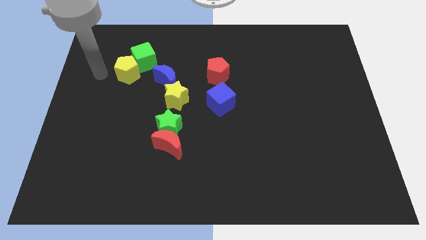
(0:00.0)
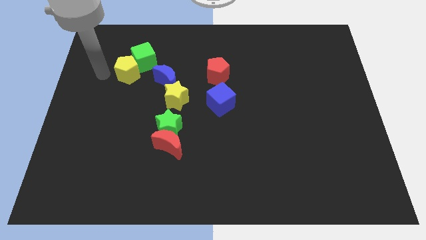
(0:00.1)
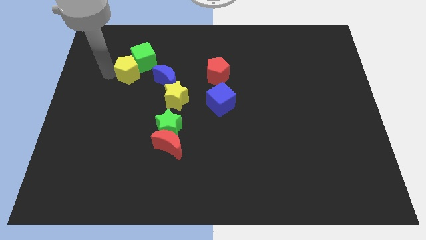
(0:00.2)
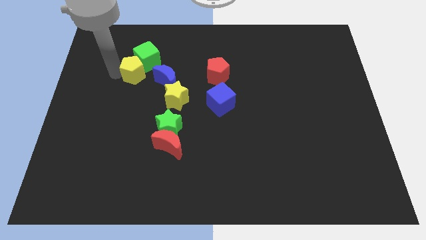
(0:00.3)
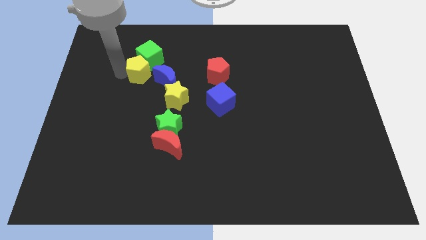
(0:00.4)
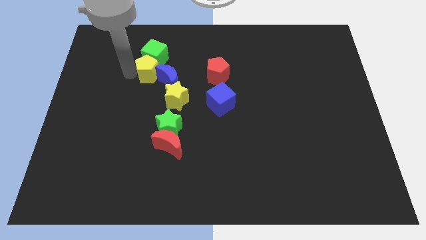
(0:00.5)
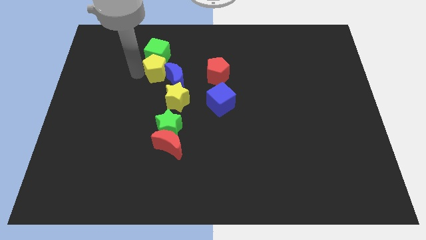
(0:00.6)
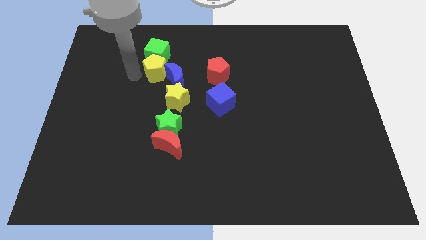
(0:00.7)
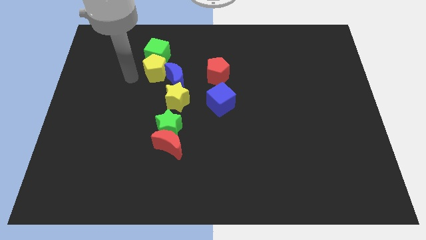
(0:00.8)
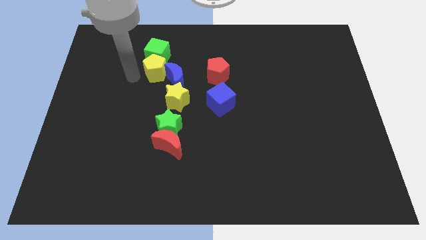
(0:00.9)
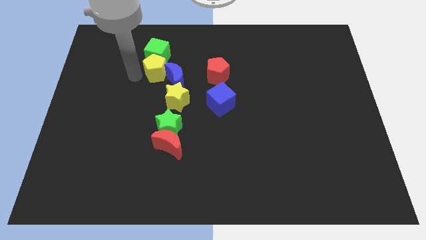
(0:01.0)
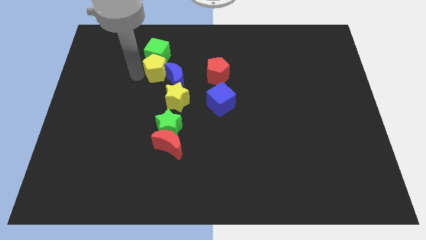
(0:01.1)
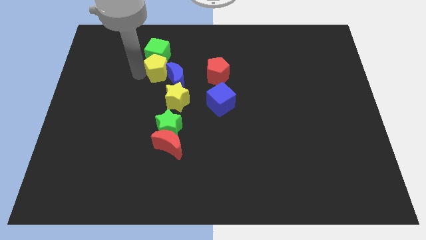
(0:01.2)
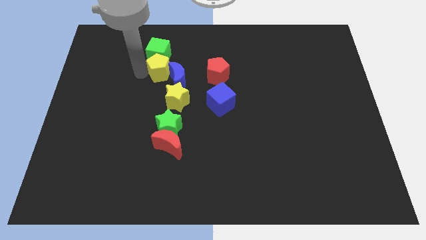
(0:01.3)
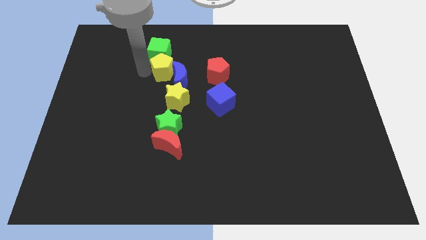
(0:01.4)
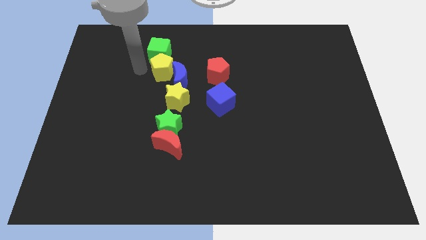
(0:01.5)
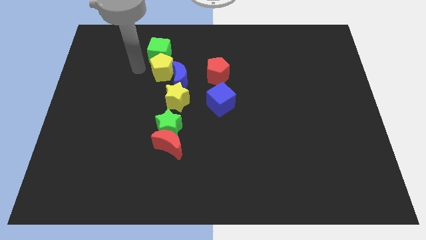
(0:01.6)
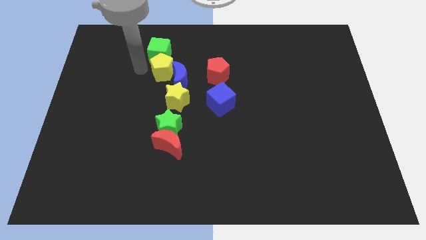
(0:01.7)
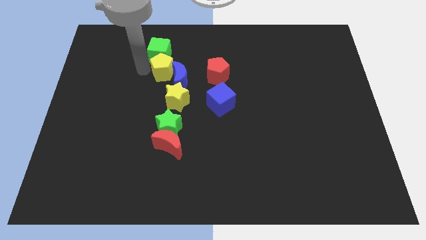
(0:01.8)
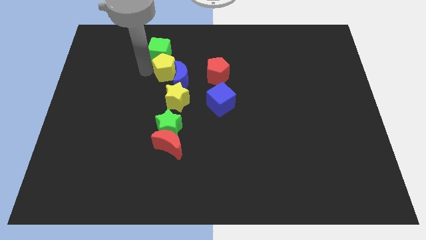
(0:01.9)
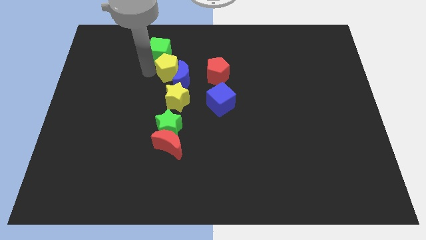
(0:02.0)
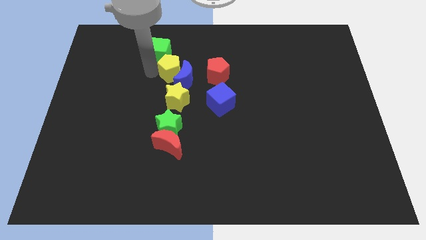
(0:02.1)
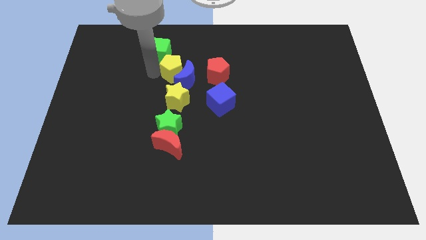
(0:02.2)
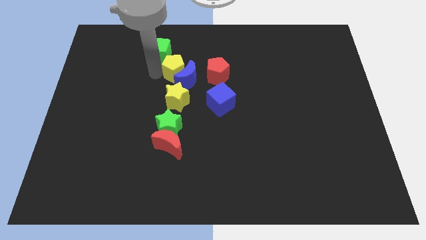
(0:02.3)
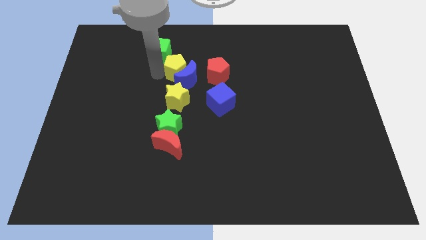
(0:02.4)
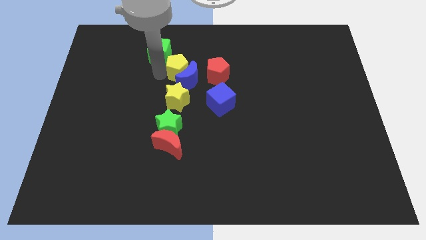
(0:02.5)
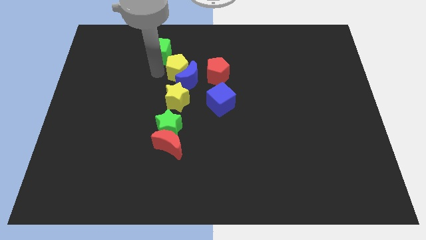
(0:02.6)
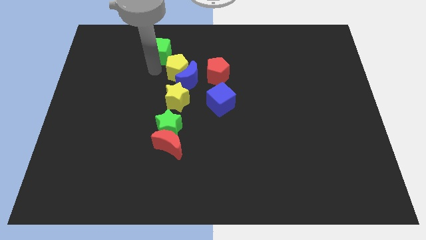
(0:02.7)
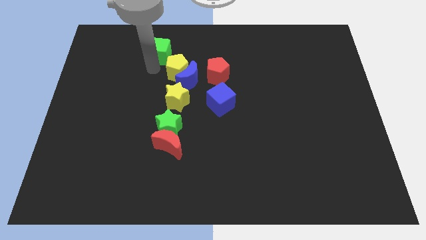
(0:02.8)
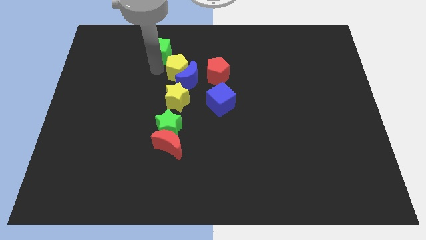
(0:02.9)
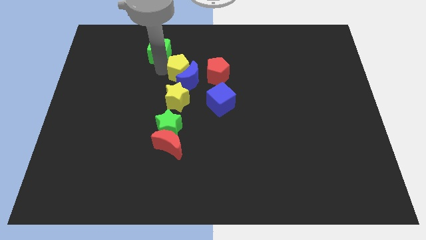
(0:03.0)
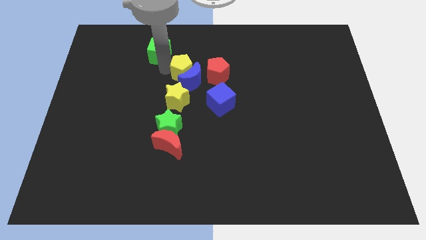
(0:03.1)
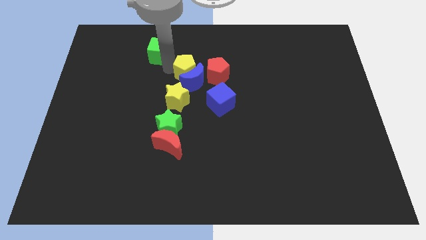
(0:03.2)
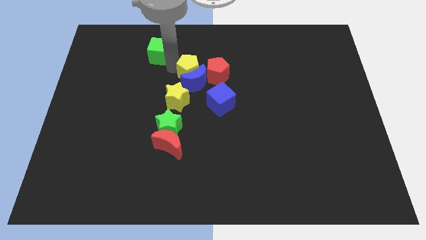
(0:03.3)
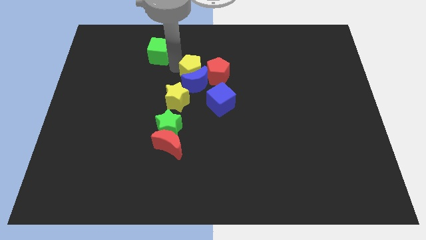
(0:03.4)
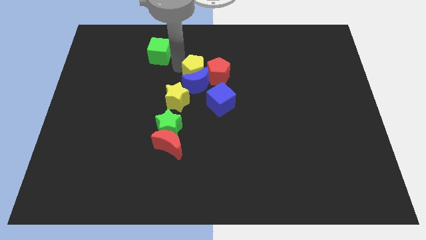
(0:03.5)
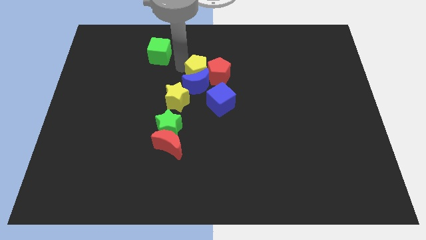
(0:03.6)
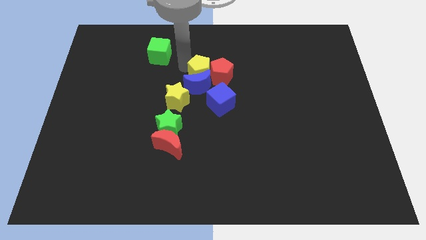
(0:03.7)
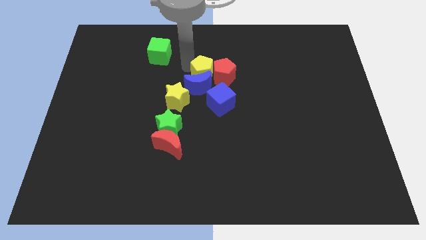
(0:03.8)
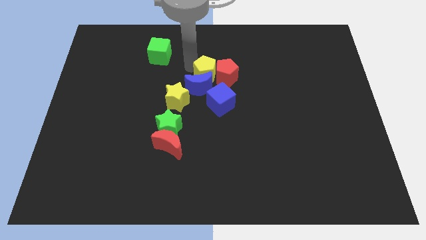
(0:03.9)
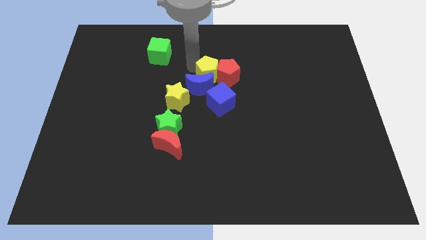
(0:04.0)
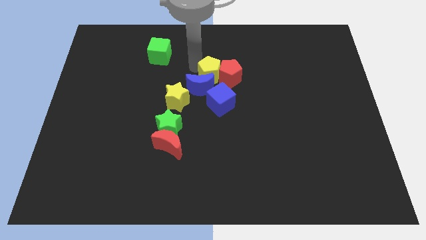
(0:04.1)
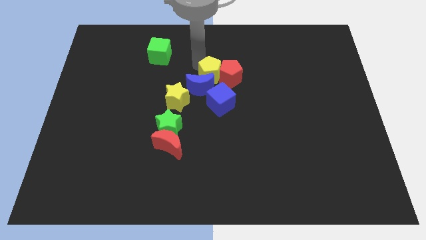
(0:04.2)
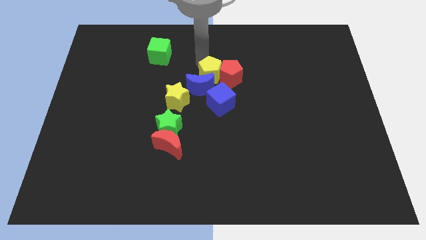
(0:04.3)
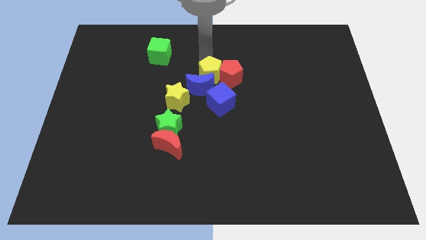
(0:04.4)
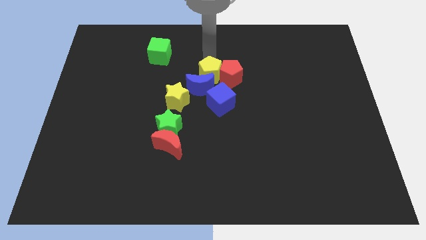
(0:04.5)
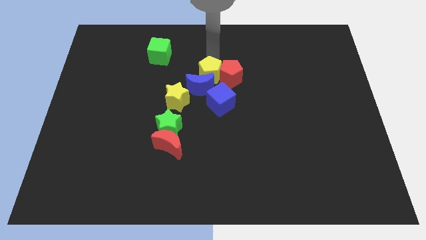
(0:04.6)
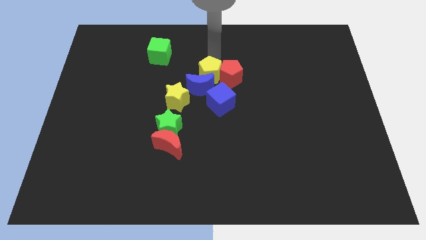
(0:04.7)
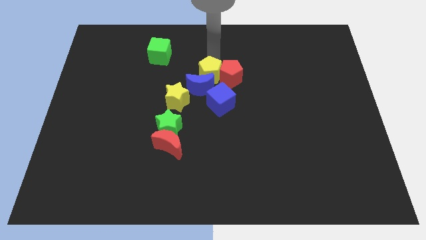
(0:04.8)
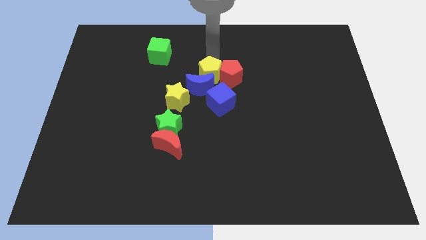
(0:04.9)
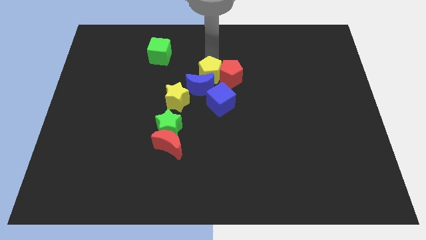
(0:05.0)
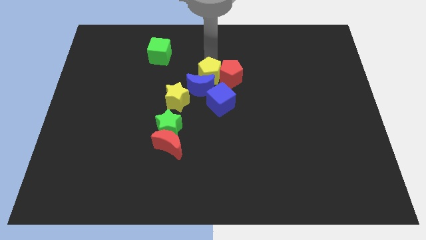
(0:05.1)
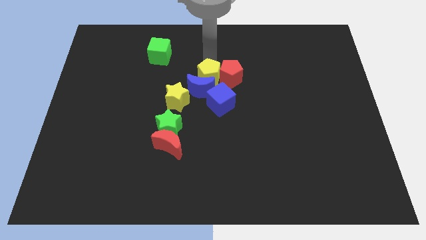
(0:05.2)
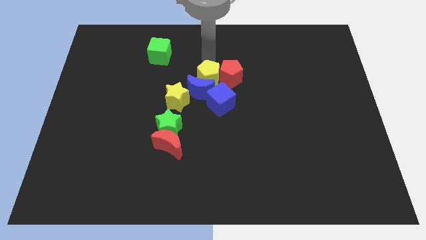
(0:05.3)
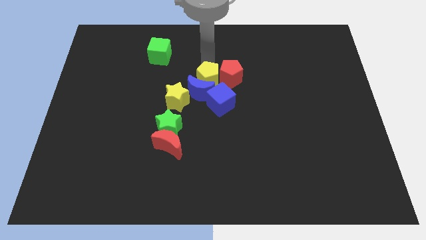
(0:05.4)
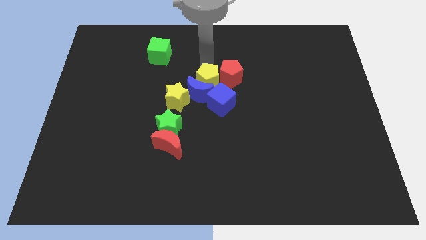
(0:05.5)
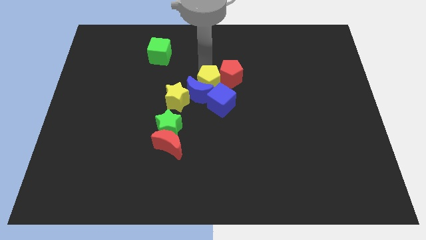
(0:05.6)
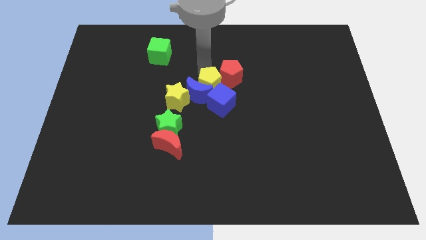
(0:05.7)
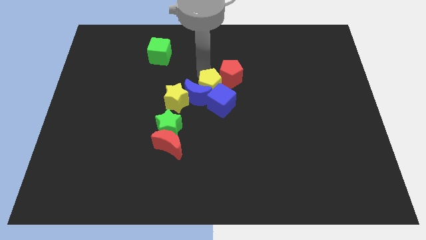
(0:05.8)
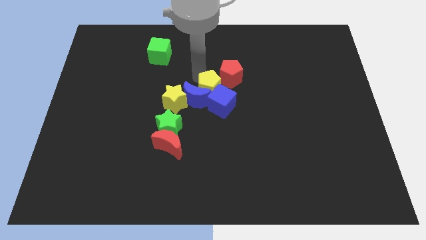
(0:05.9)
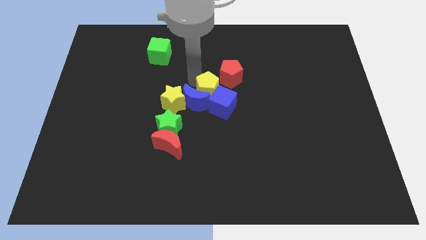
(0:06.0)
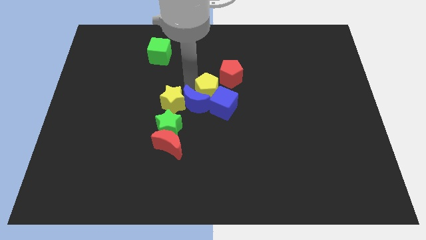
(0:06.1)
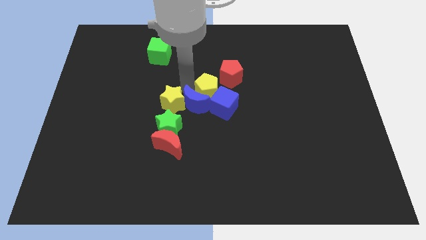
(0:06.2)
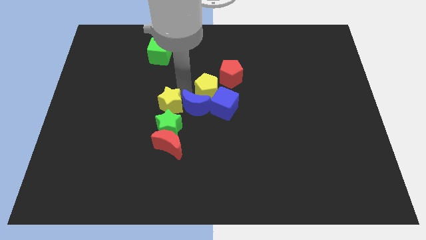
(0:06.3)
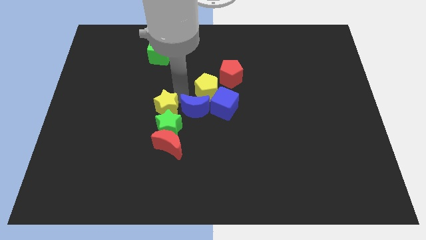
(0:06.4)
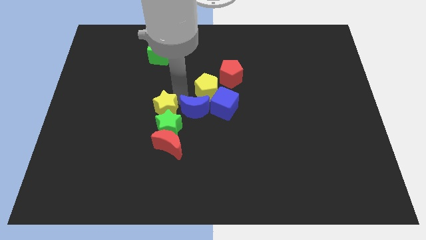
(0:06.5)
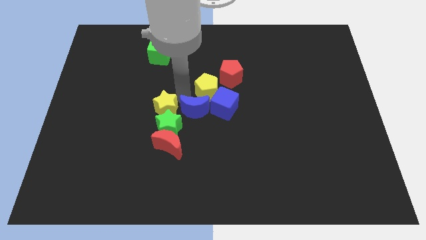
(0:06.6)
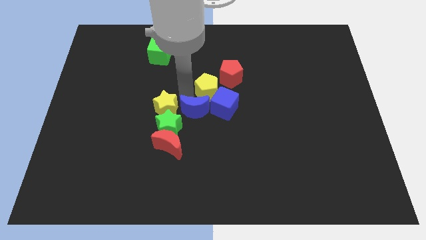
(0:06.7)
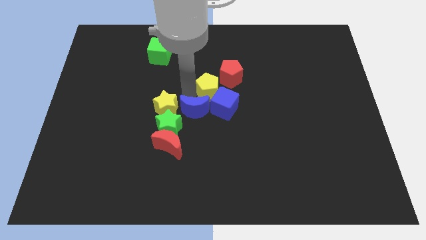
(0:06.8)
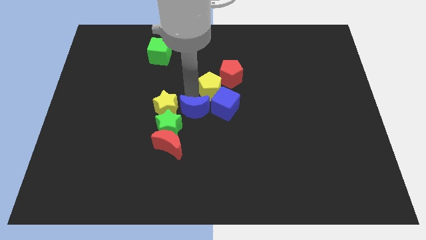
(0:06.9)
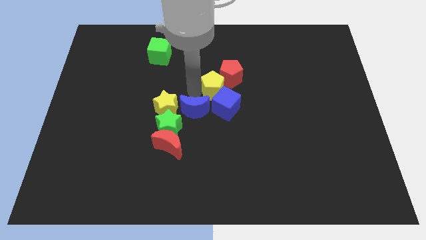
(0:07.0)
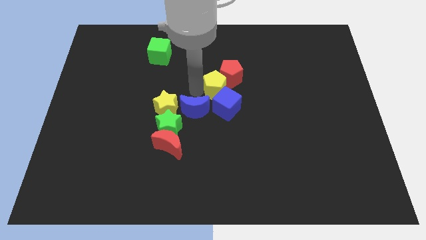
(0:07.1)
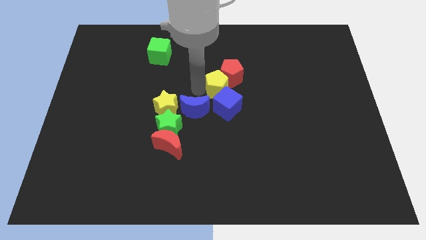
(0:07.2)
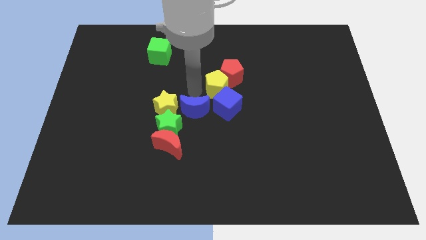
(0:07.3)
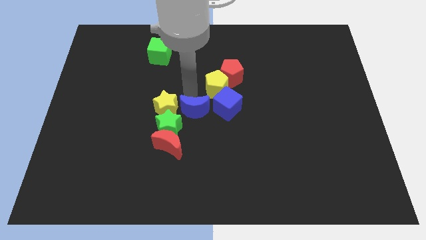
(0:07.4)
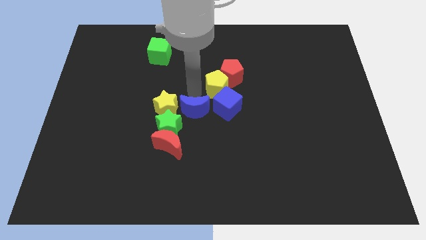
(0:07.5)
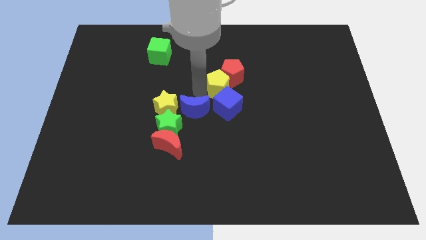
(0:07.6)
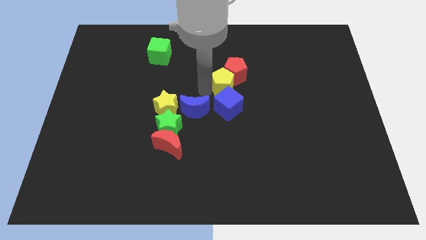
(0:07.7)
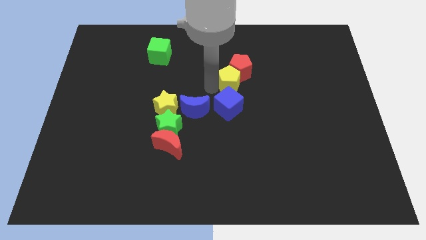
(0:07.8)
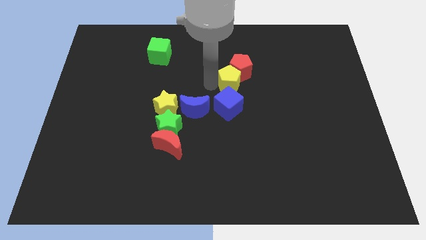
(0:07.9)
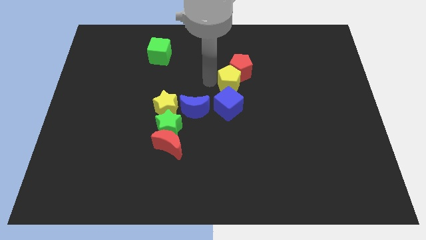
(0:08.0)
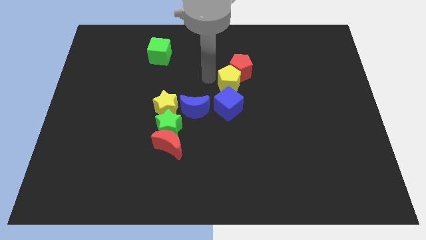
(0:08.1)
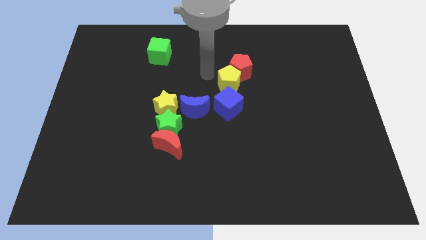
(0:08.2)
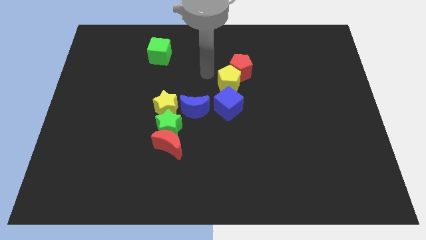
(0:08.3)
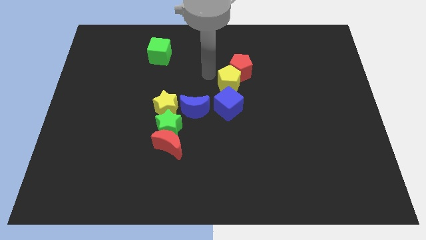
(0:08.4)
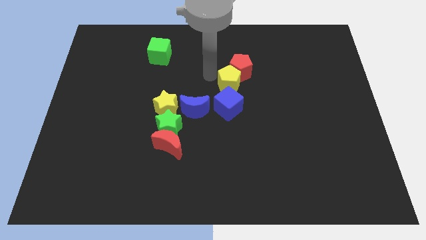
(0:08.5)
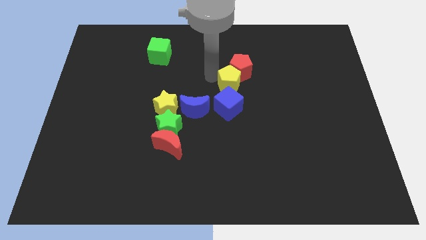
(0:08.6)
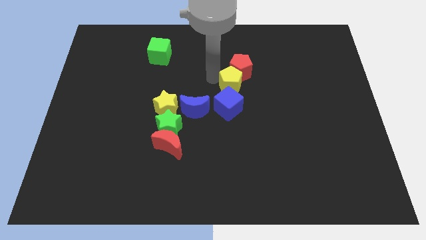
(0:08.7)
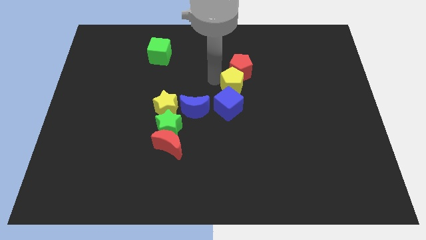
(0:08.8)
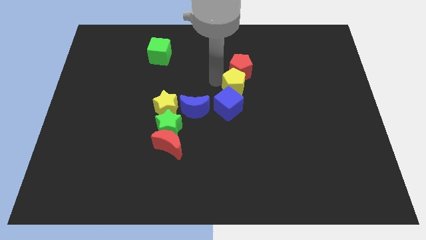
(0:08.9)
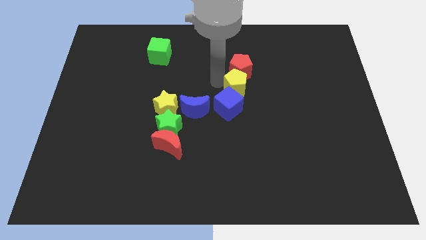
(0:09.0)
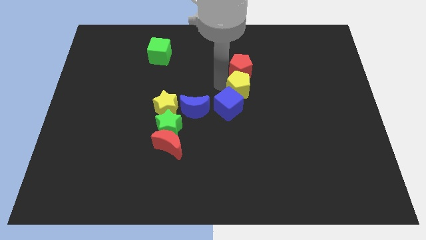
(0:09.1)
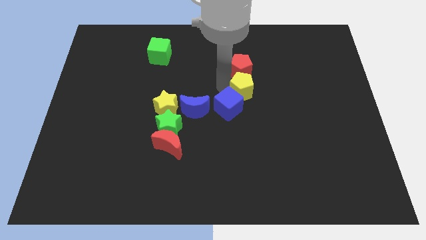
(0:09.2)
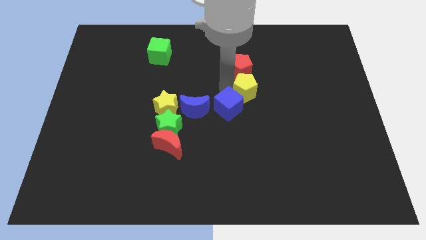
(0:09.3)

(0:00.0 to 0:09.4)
slide the yellow pentagon to the right of the blue cube
